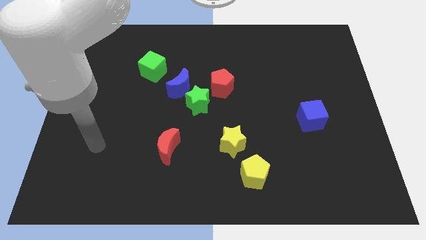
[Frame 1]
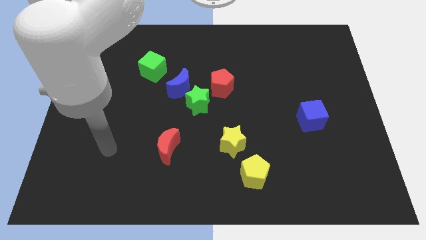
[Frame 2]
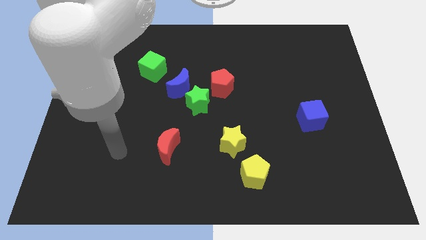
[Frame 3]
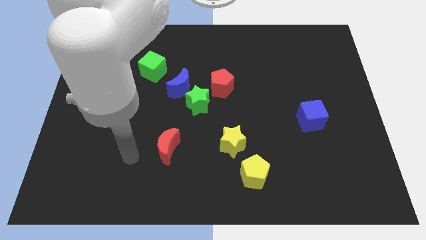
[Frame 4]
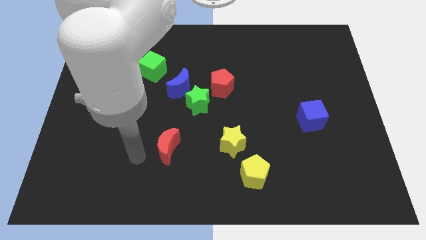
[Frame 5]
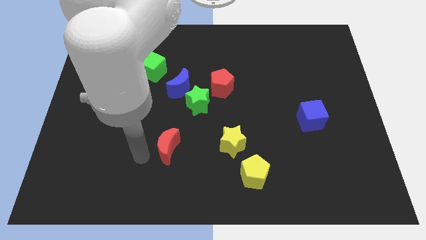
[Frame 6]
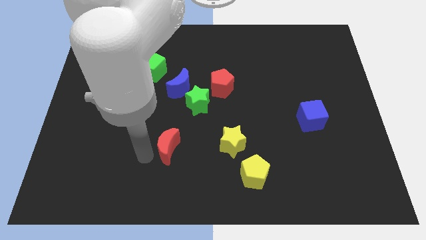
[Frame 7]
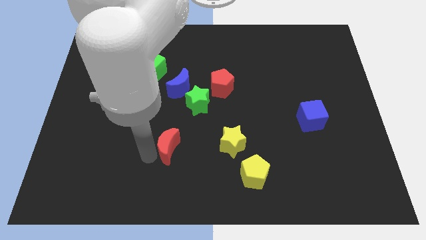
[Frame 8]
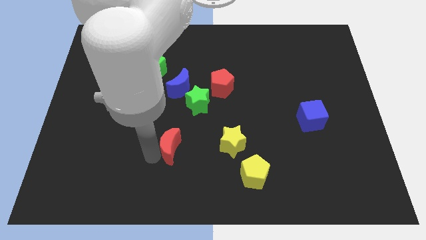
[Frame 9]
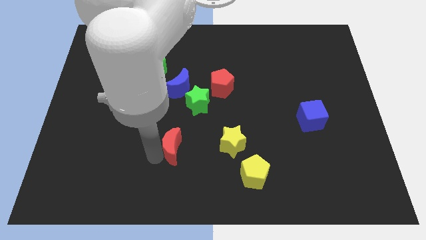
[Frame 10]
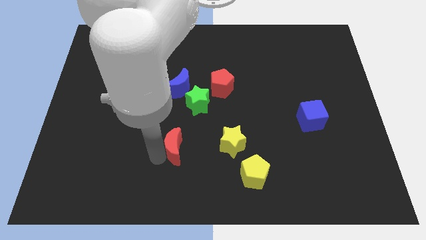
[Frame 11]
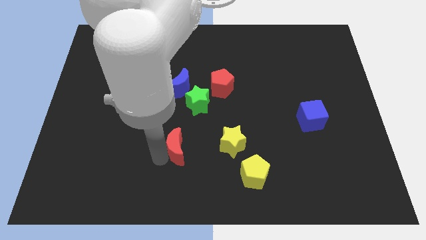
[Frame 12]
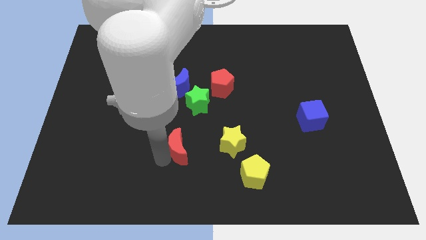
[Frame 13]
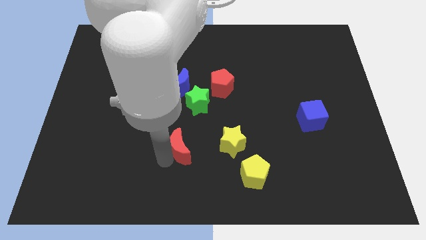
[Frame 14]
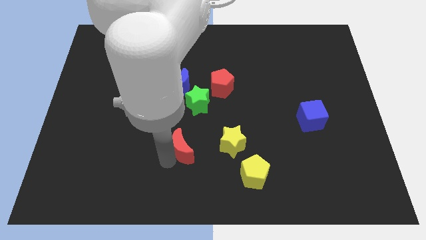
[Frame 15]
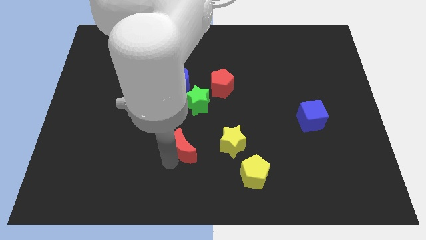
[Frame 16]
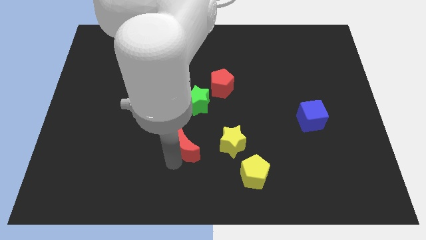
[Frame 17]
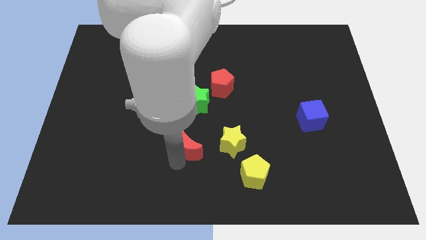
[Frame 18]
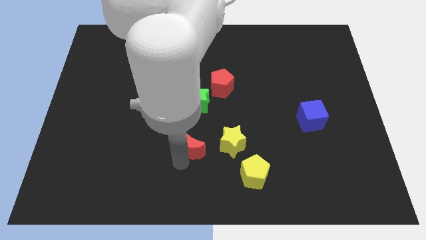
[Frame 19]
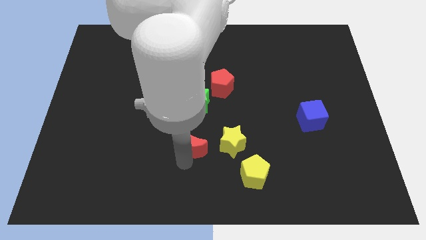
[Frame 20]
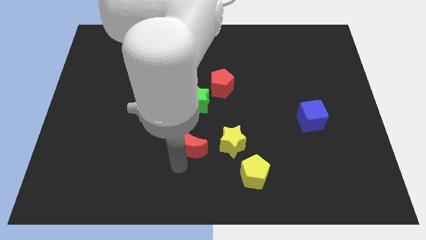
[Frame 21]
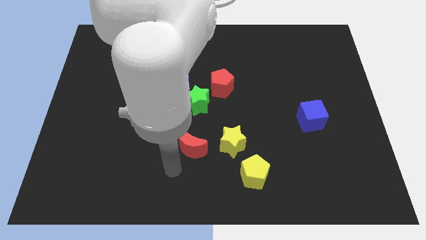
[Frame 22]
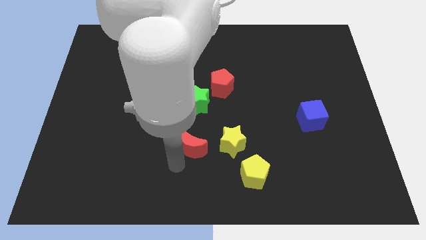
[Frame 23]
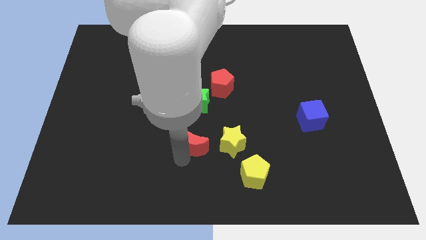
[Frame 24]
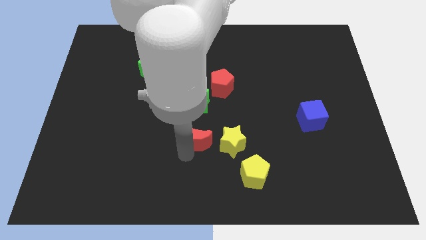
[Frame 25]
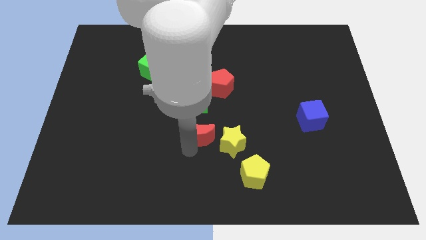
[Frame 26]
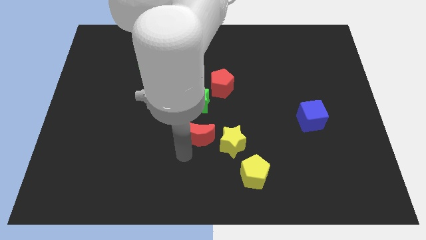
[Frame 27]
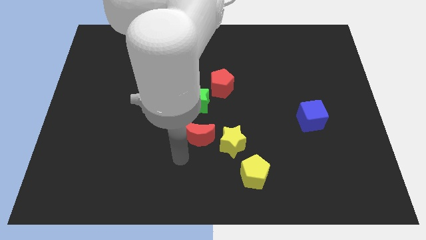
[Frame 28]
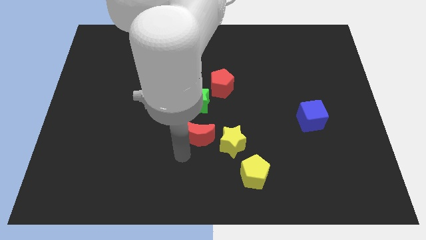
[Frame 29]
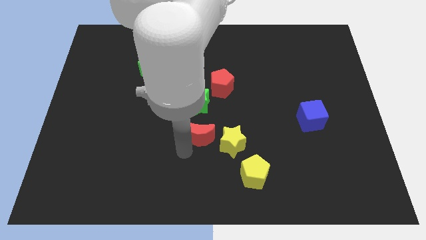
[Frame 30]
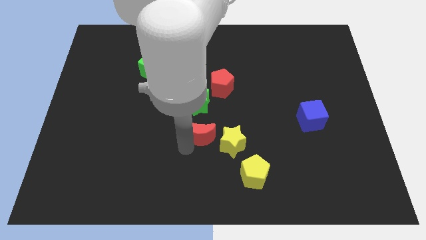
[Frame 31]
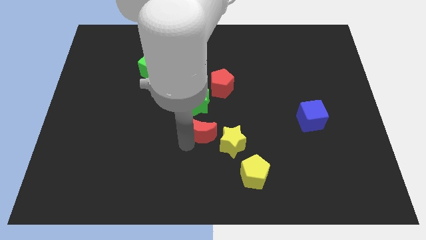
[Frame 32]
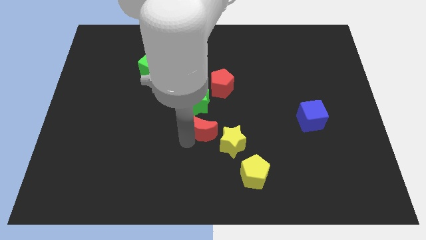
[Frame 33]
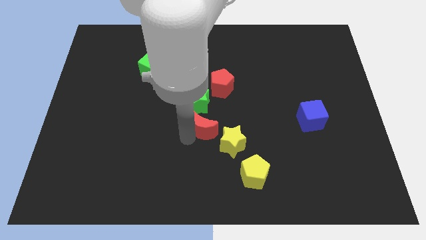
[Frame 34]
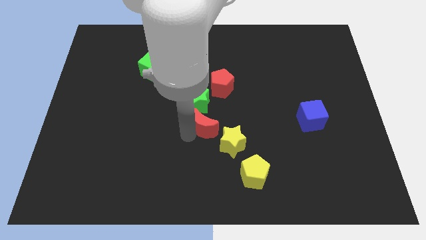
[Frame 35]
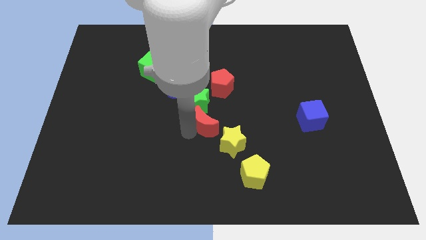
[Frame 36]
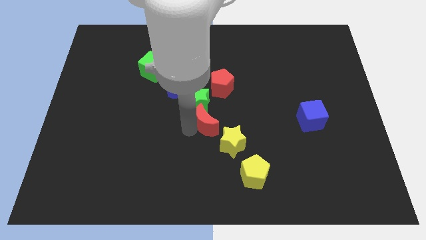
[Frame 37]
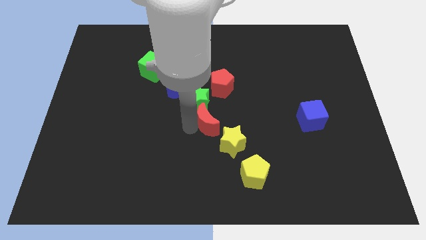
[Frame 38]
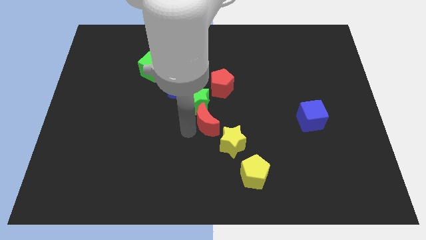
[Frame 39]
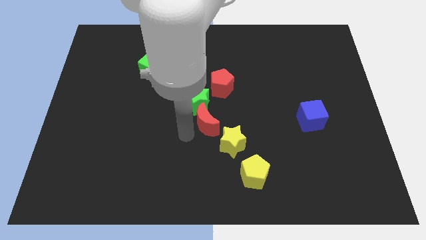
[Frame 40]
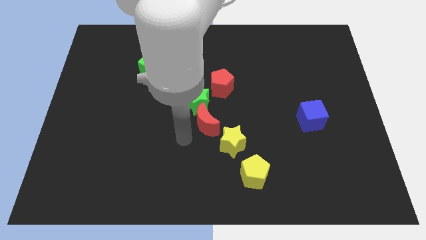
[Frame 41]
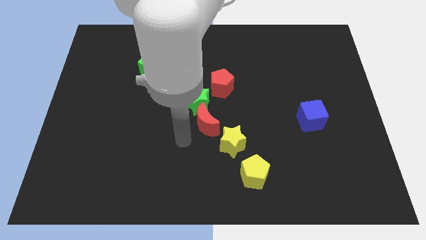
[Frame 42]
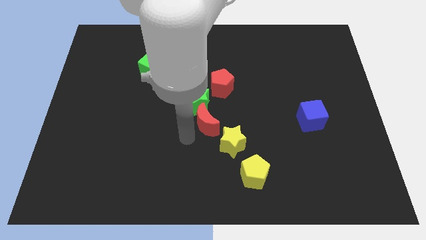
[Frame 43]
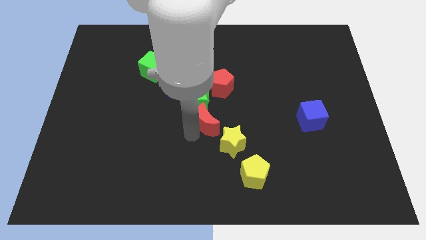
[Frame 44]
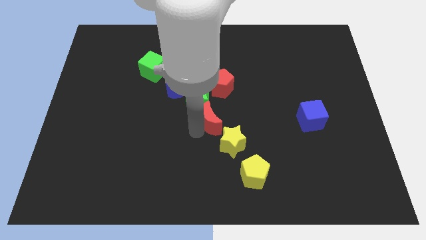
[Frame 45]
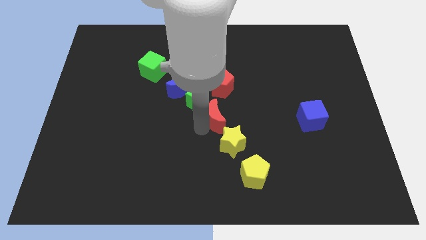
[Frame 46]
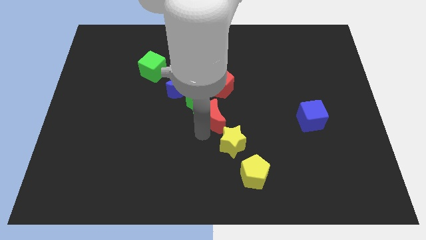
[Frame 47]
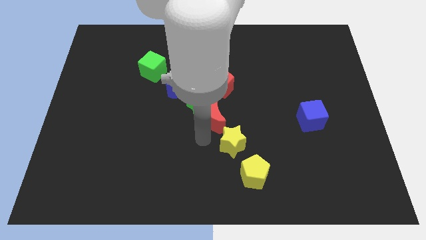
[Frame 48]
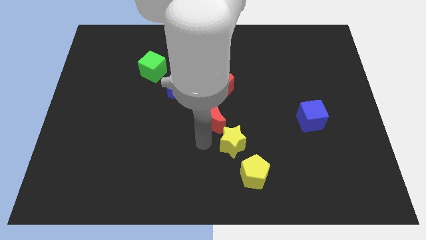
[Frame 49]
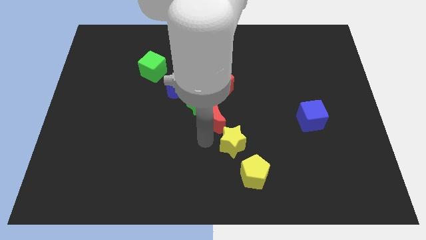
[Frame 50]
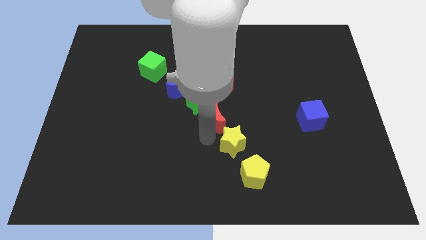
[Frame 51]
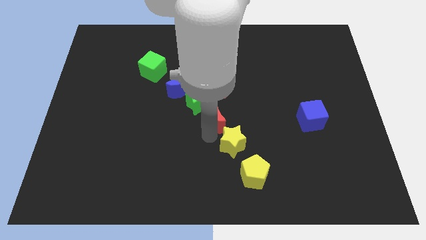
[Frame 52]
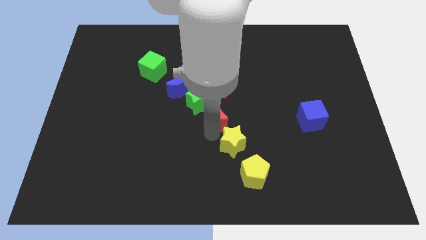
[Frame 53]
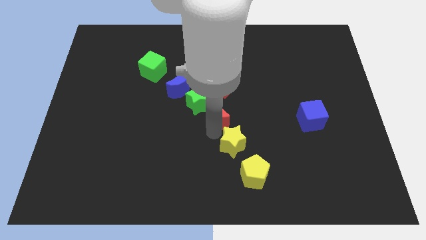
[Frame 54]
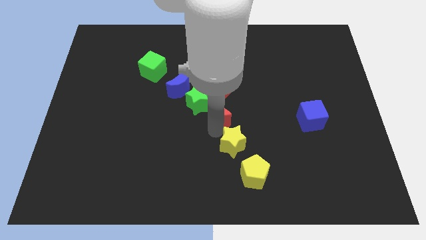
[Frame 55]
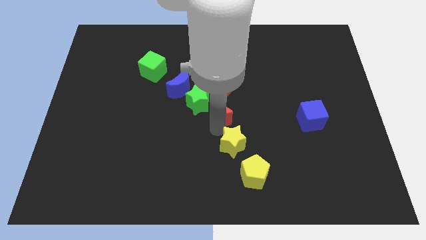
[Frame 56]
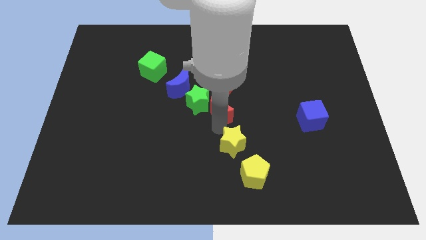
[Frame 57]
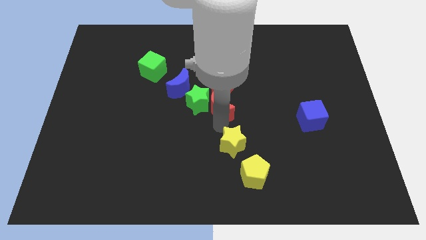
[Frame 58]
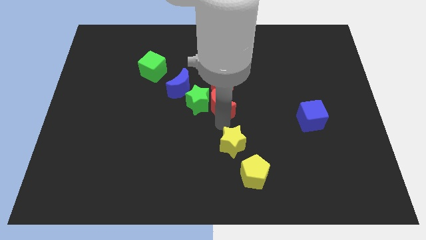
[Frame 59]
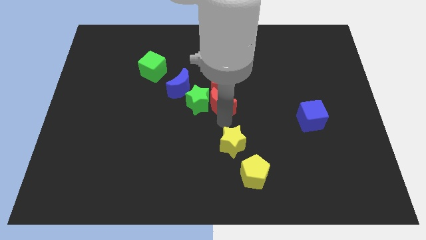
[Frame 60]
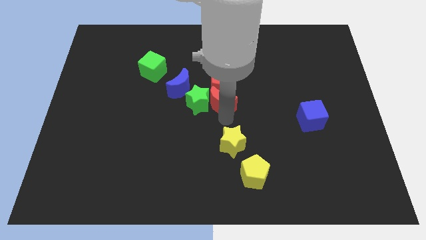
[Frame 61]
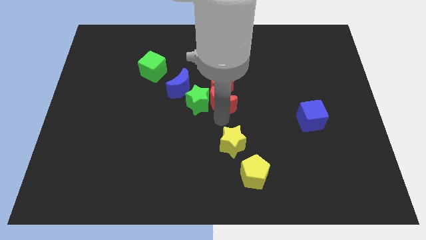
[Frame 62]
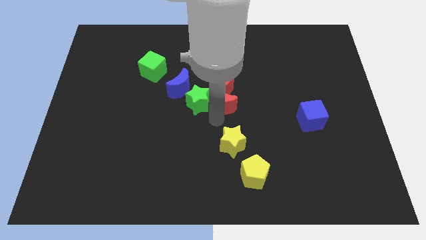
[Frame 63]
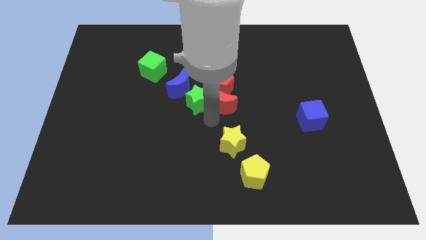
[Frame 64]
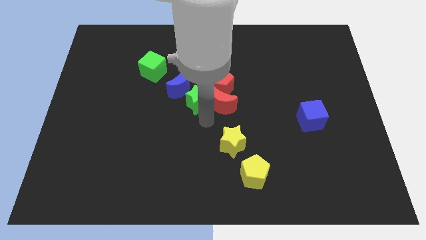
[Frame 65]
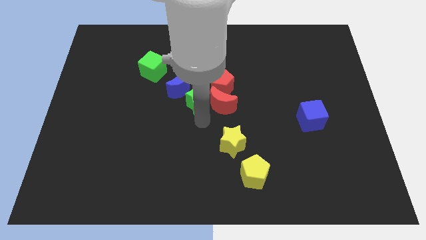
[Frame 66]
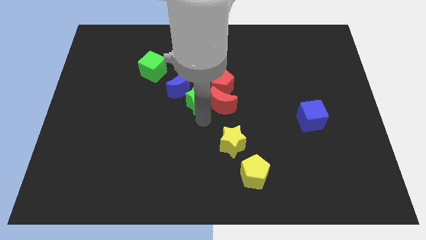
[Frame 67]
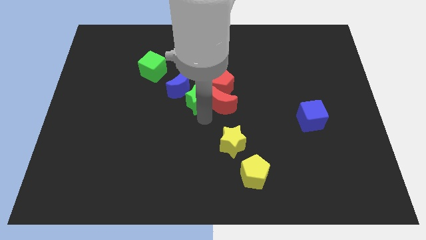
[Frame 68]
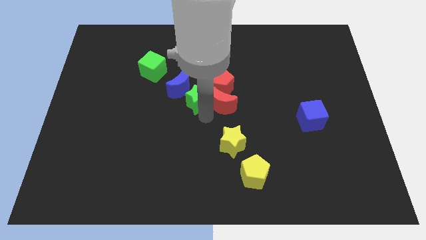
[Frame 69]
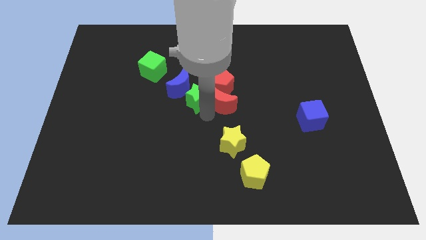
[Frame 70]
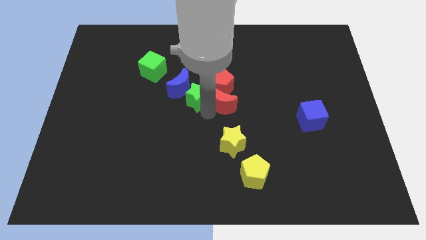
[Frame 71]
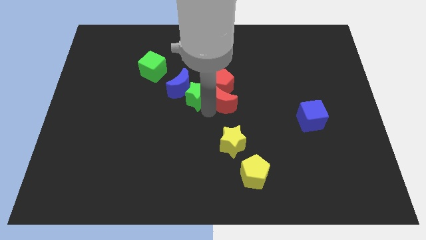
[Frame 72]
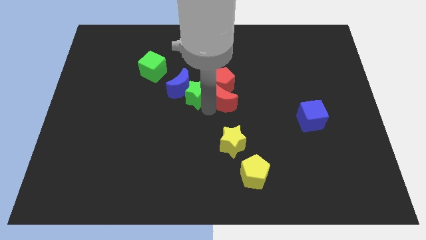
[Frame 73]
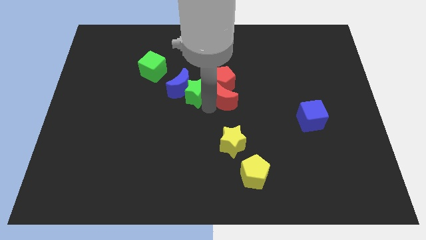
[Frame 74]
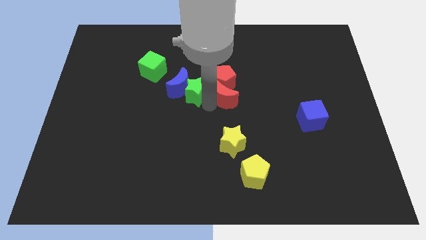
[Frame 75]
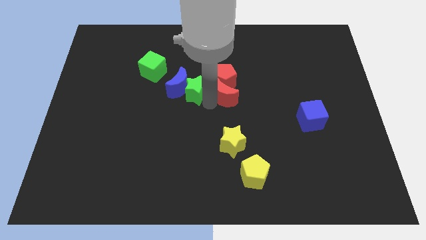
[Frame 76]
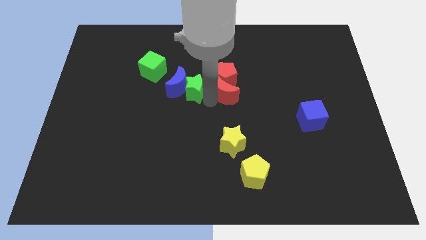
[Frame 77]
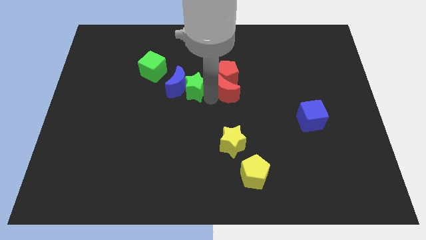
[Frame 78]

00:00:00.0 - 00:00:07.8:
move the red moon upwards and to the right

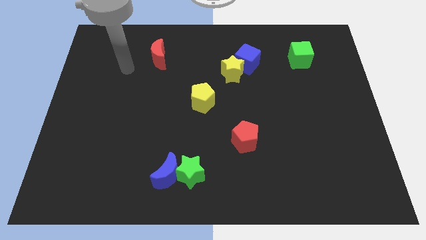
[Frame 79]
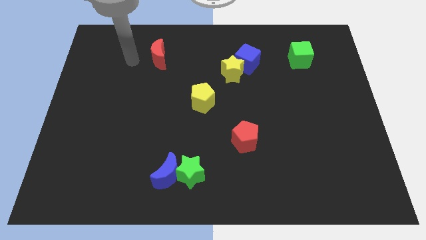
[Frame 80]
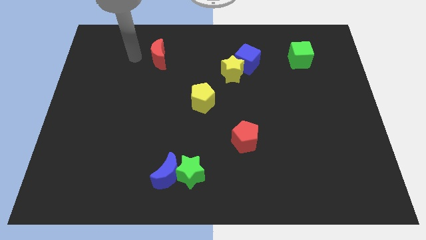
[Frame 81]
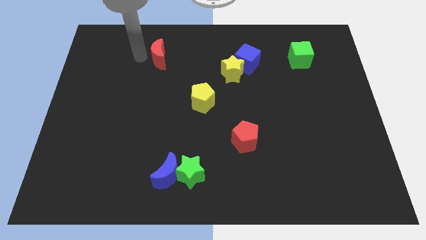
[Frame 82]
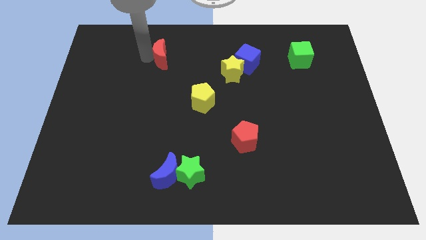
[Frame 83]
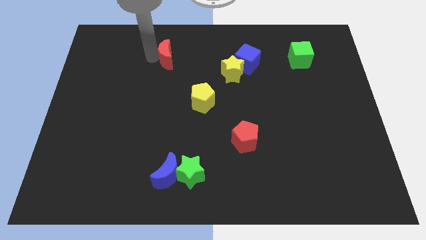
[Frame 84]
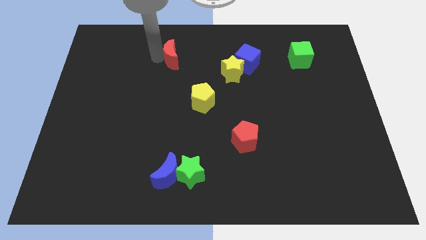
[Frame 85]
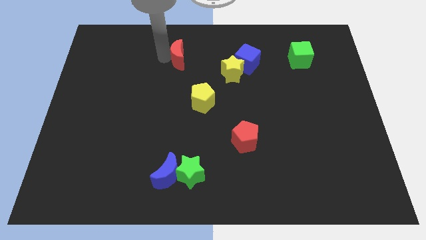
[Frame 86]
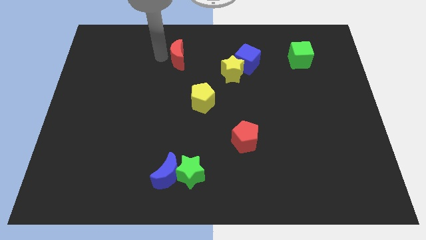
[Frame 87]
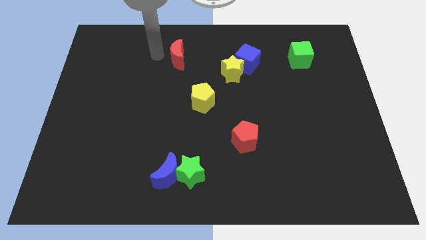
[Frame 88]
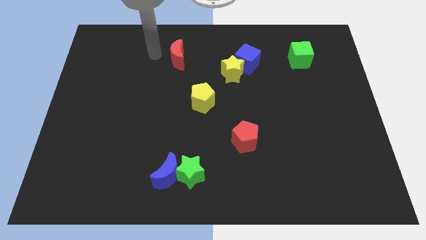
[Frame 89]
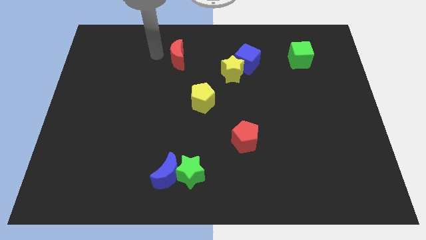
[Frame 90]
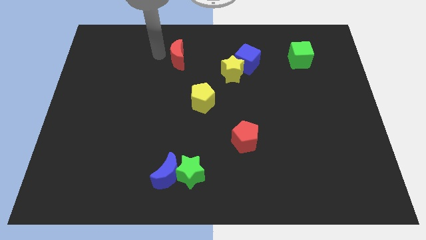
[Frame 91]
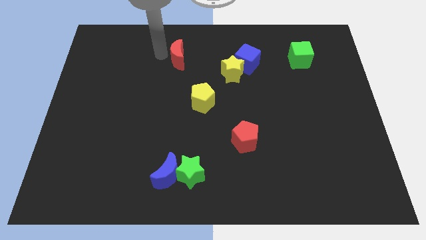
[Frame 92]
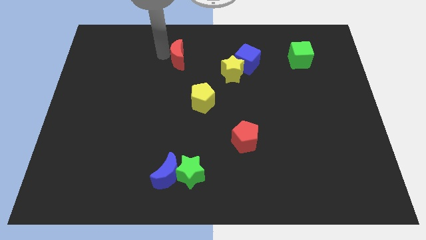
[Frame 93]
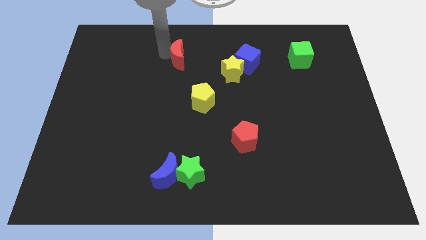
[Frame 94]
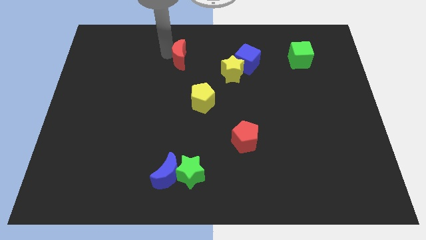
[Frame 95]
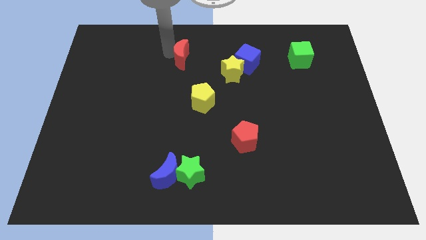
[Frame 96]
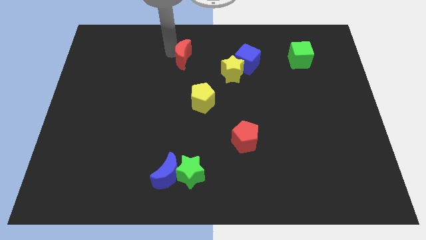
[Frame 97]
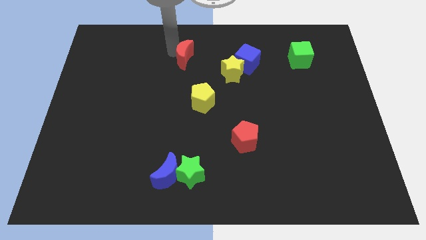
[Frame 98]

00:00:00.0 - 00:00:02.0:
move the red moon slightly right
